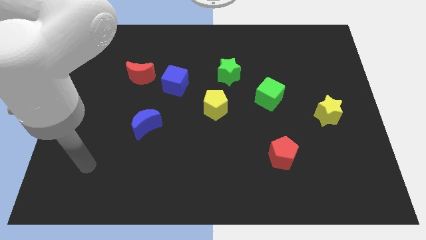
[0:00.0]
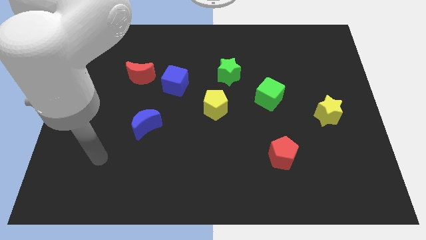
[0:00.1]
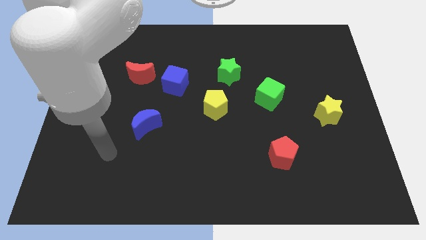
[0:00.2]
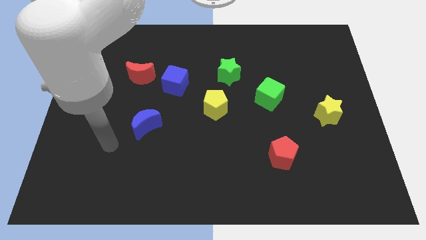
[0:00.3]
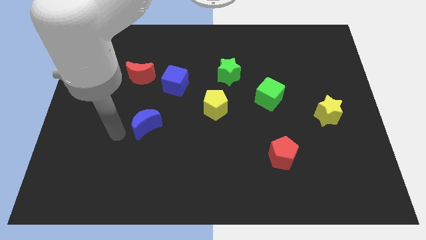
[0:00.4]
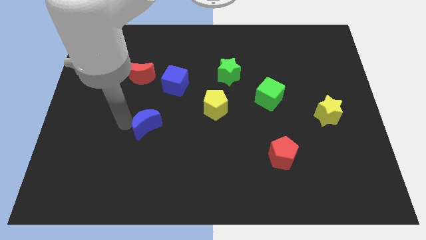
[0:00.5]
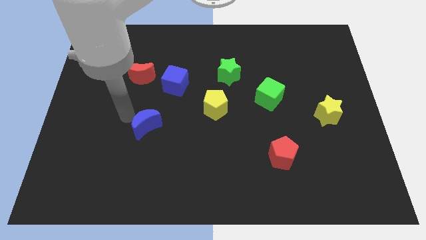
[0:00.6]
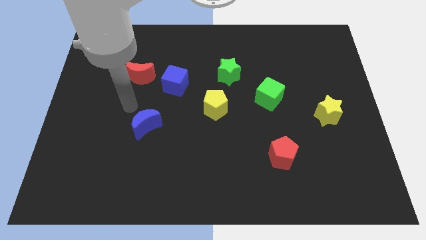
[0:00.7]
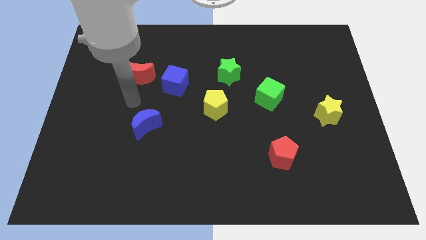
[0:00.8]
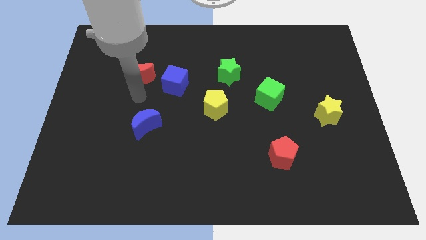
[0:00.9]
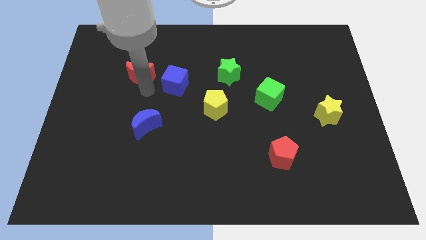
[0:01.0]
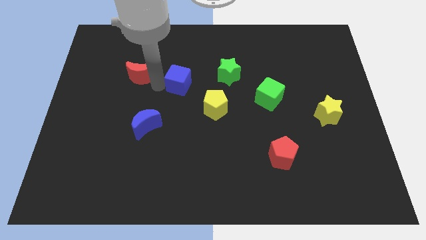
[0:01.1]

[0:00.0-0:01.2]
move the red moon away from the blue cube

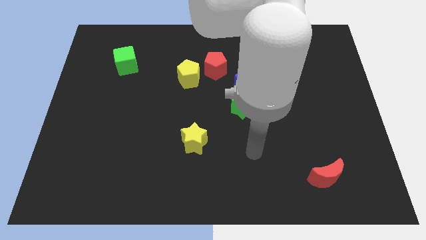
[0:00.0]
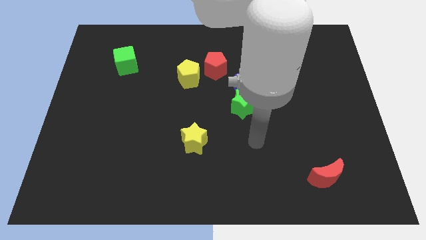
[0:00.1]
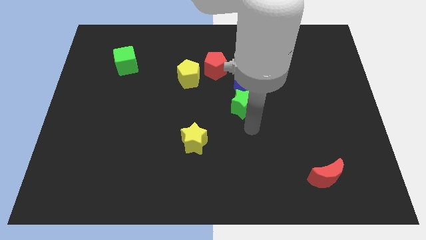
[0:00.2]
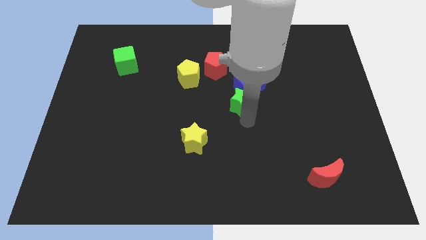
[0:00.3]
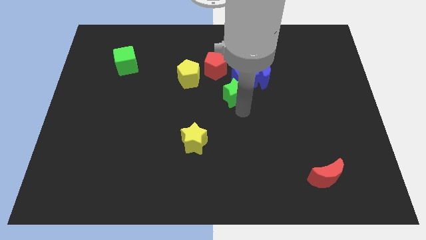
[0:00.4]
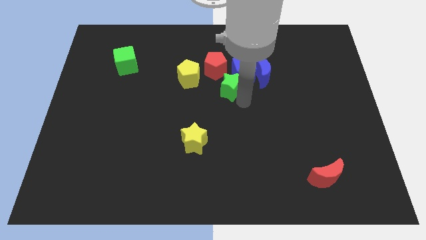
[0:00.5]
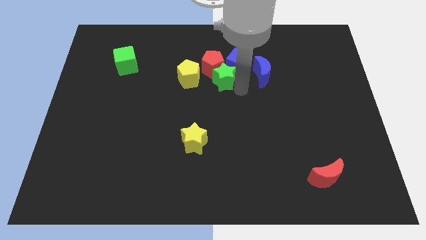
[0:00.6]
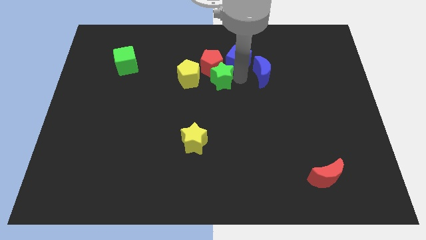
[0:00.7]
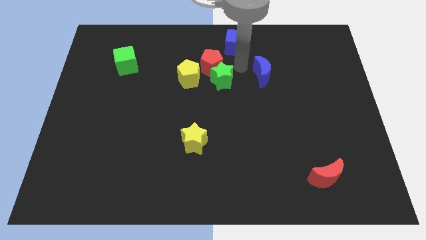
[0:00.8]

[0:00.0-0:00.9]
pull the blue moon apart from the blue cube

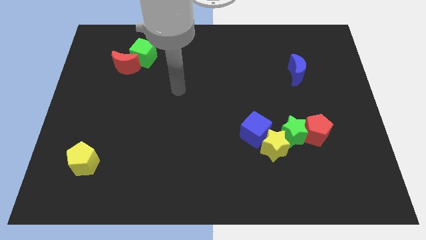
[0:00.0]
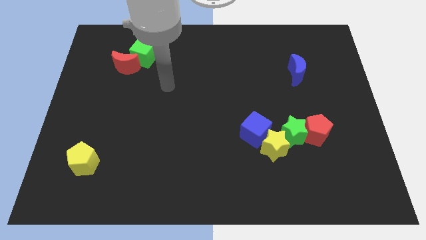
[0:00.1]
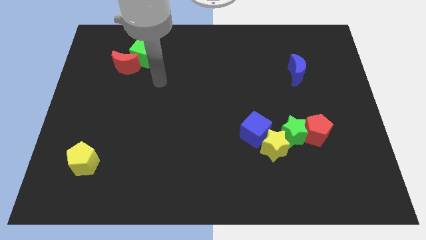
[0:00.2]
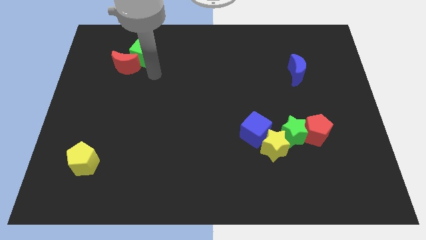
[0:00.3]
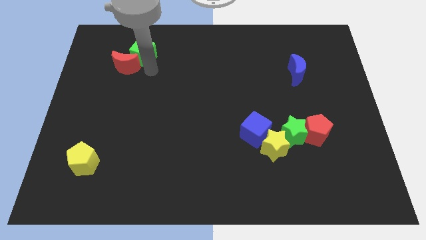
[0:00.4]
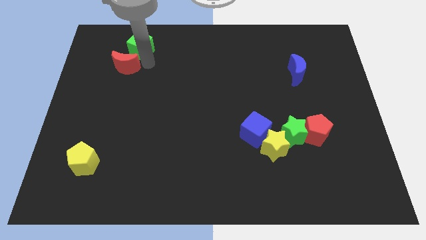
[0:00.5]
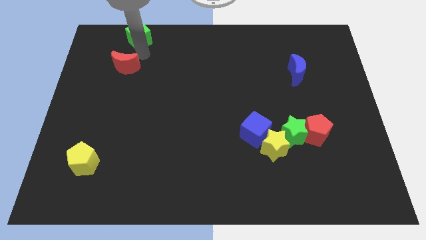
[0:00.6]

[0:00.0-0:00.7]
separate the red moon from the green cube

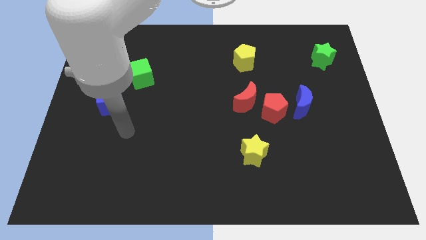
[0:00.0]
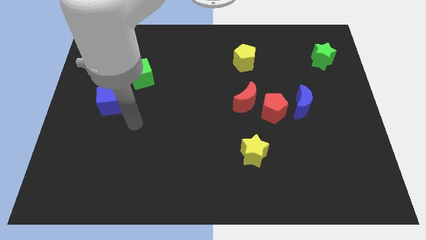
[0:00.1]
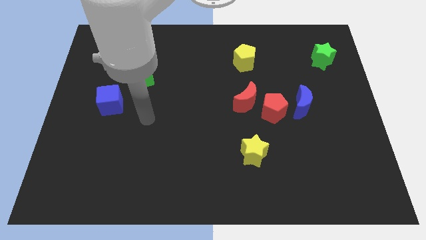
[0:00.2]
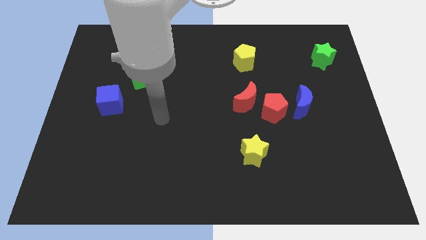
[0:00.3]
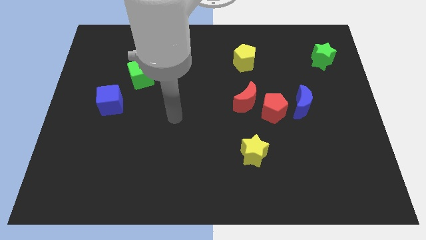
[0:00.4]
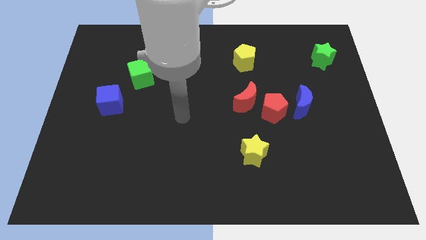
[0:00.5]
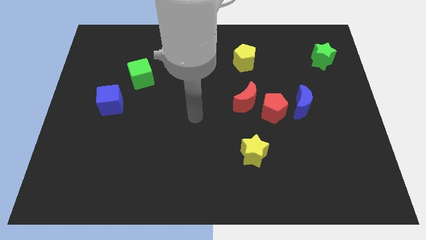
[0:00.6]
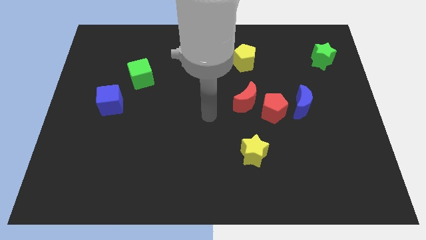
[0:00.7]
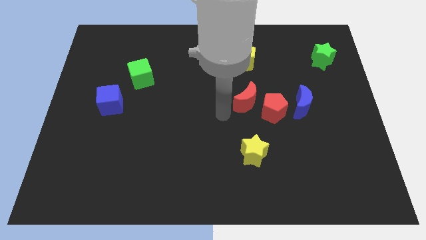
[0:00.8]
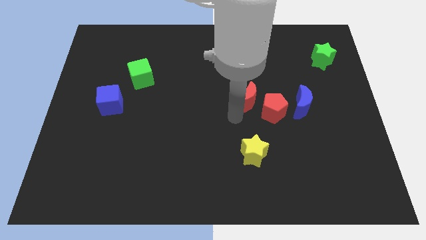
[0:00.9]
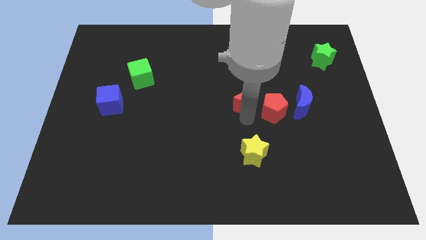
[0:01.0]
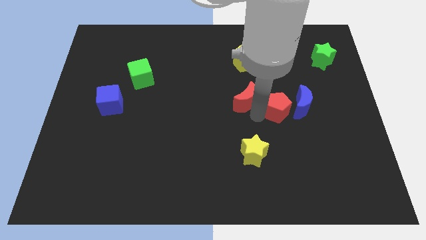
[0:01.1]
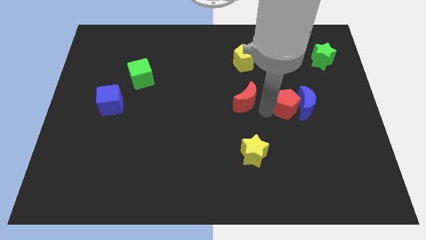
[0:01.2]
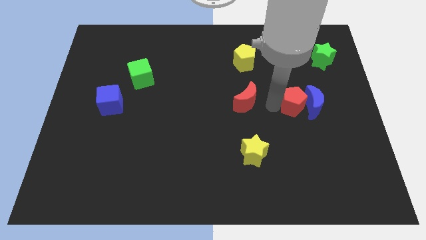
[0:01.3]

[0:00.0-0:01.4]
move the red moon away from the red pentagon

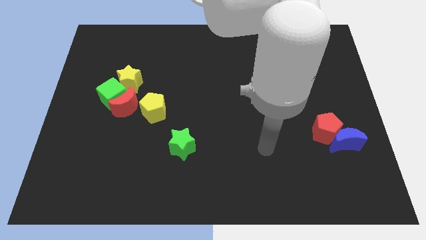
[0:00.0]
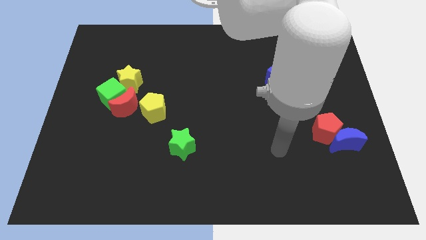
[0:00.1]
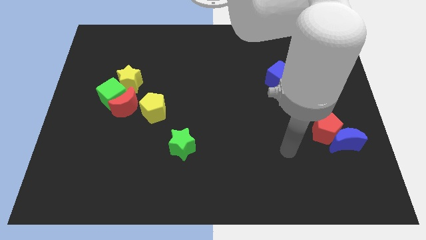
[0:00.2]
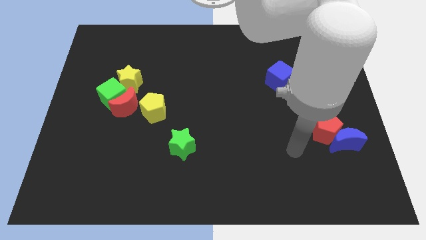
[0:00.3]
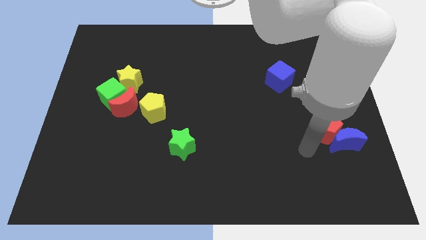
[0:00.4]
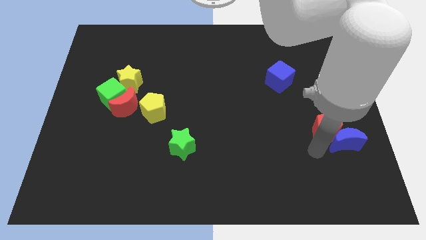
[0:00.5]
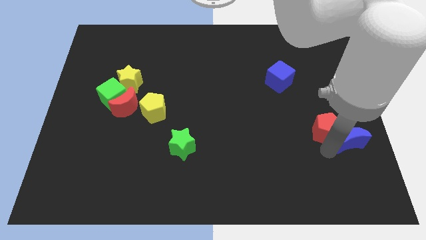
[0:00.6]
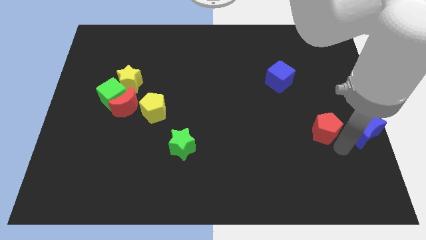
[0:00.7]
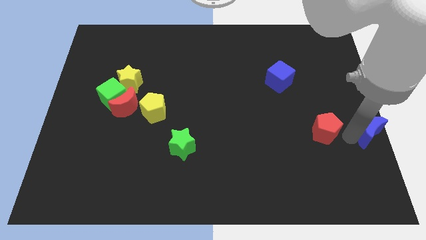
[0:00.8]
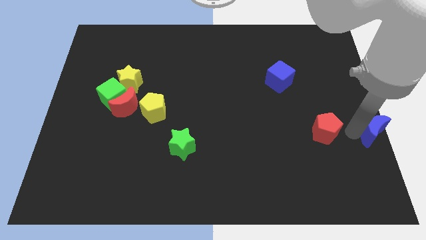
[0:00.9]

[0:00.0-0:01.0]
separate the red pentagon from the blue moon

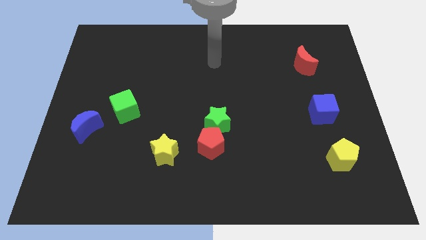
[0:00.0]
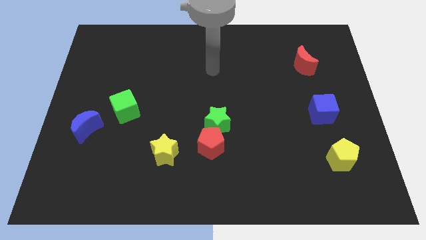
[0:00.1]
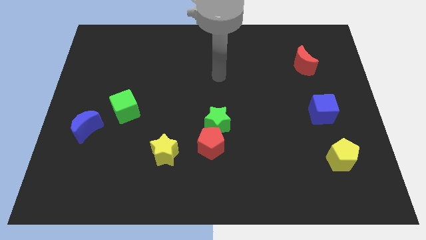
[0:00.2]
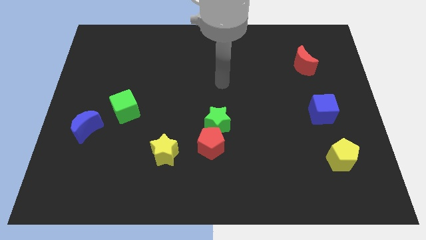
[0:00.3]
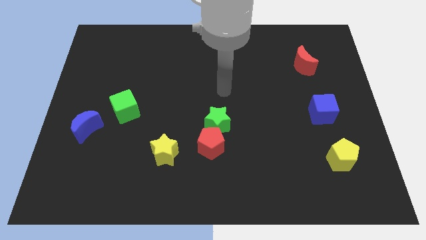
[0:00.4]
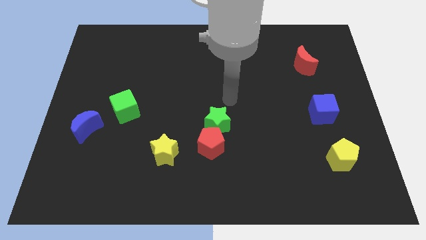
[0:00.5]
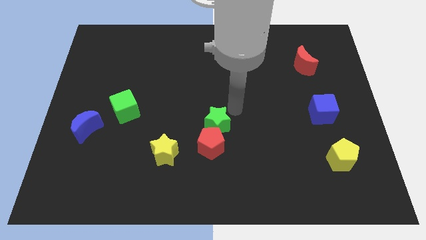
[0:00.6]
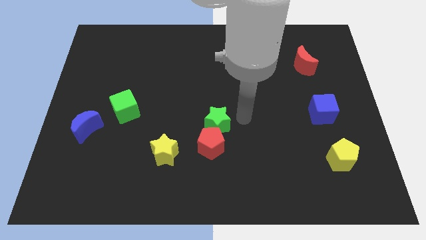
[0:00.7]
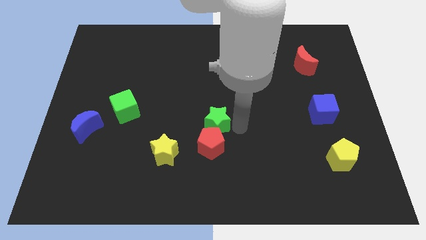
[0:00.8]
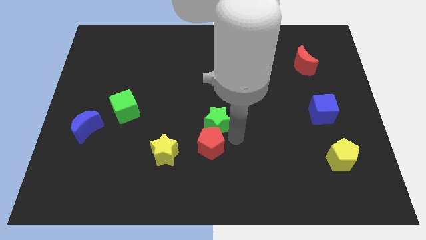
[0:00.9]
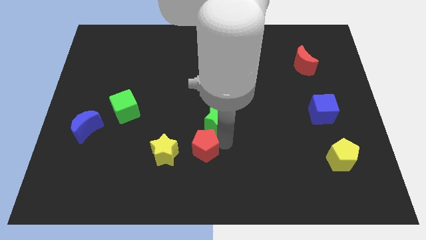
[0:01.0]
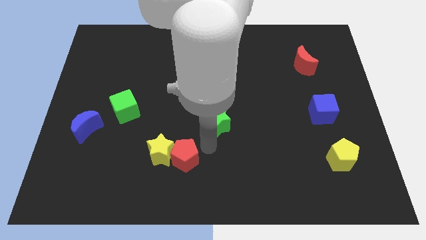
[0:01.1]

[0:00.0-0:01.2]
move the green star away from the red pentagon

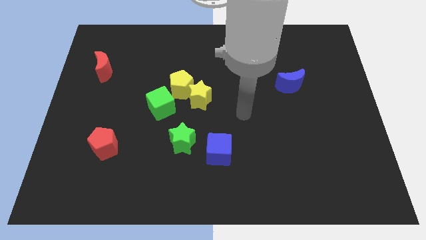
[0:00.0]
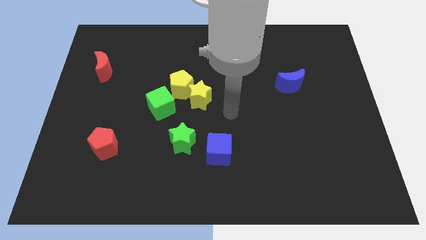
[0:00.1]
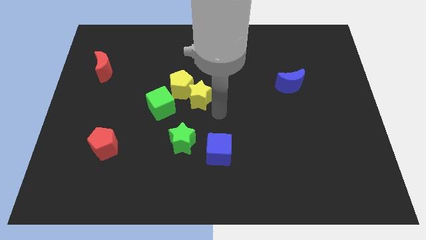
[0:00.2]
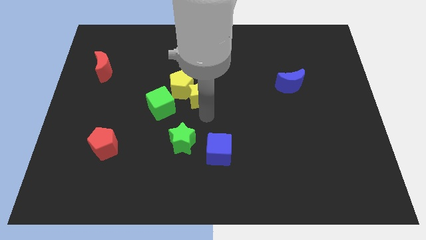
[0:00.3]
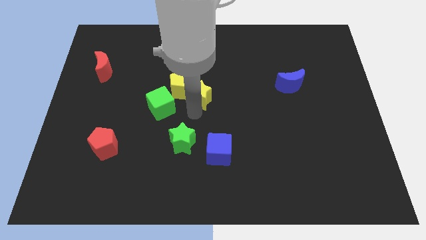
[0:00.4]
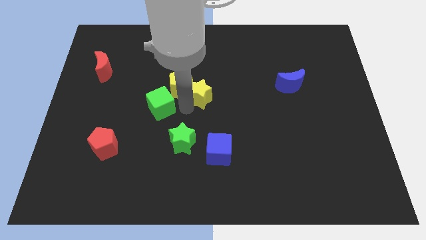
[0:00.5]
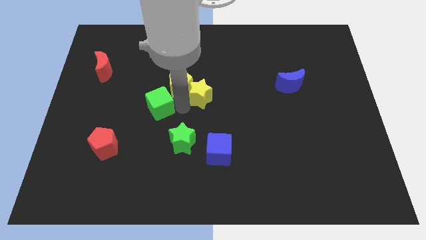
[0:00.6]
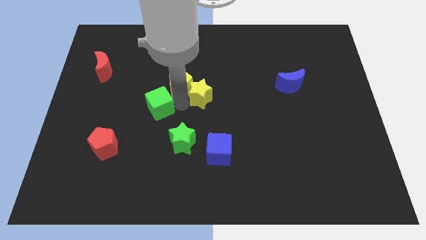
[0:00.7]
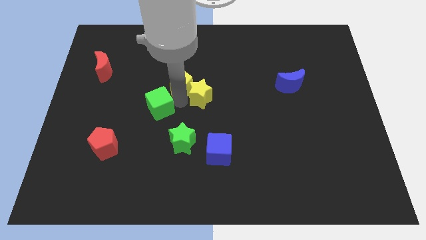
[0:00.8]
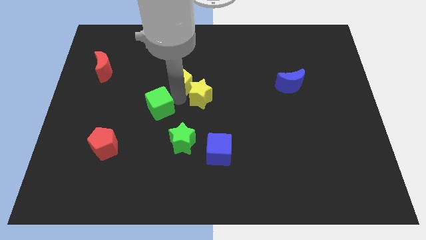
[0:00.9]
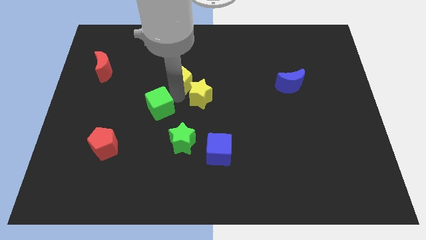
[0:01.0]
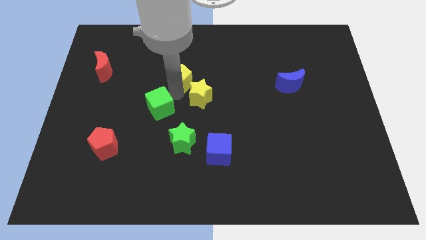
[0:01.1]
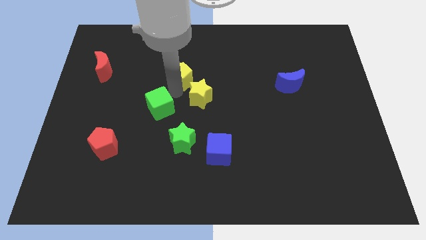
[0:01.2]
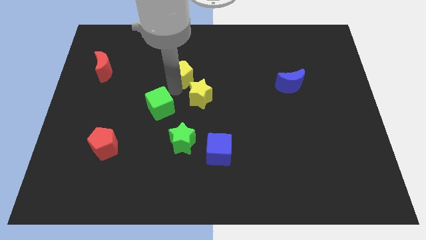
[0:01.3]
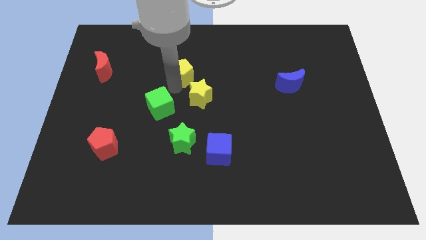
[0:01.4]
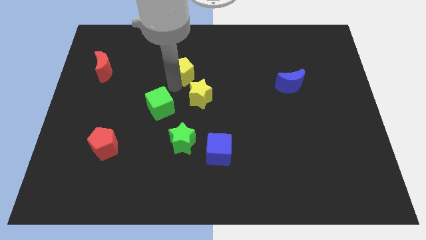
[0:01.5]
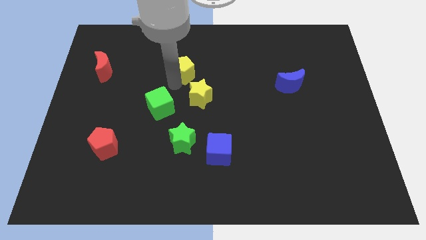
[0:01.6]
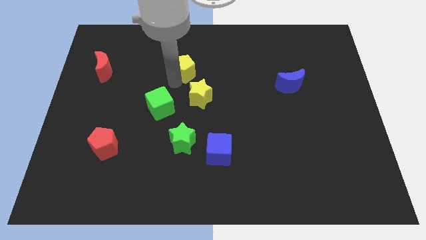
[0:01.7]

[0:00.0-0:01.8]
separate the yellow pentagon from the yellow star and green cube

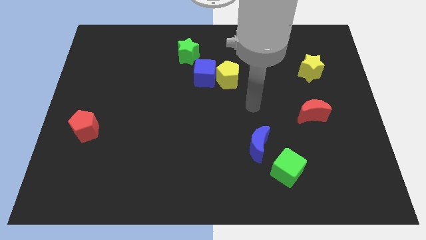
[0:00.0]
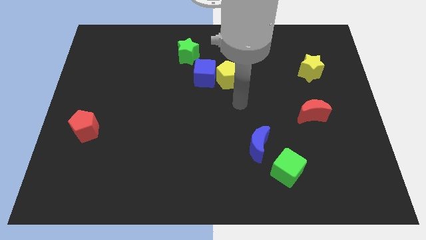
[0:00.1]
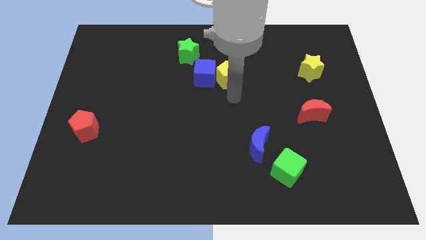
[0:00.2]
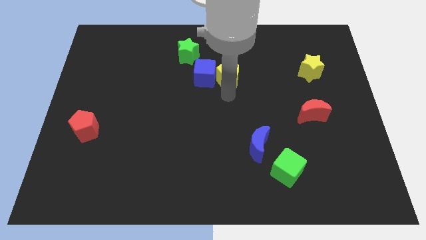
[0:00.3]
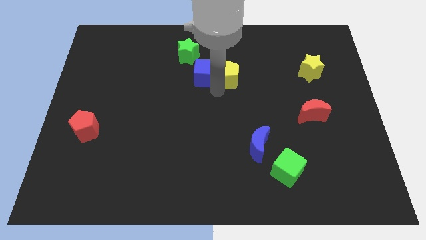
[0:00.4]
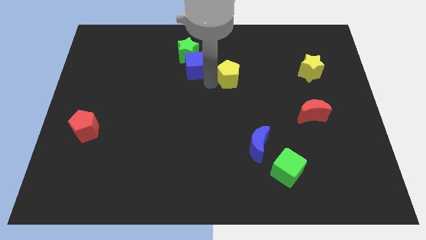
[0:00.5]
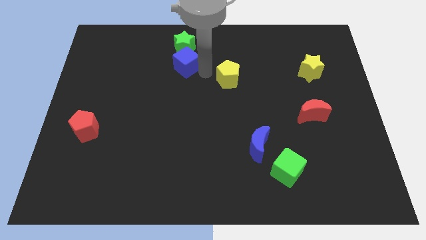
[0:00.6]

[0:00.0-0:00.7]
pull the yellow pentagon apart from the blue cube

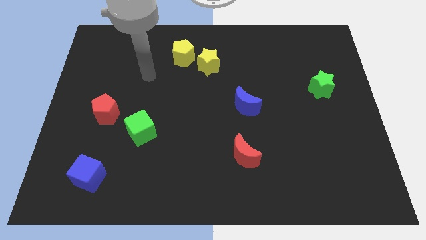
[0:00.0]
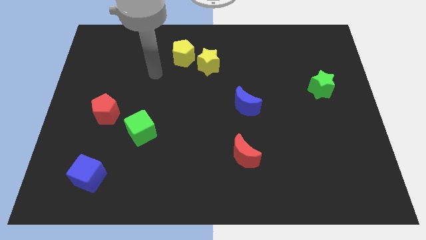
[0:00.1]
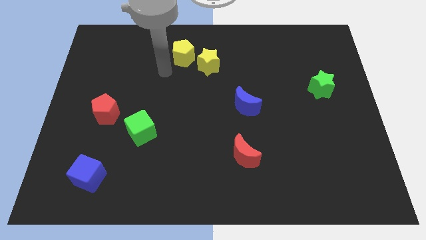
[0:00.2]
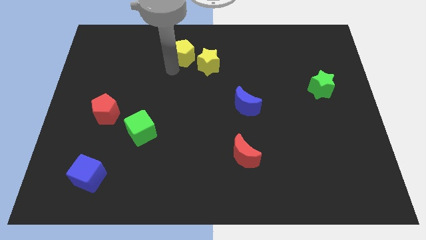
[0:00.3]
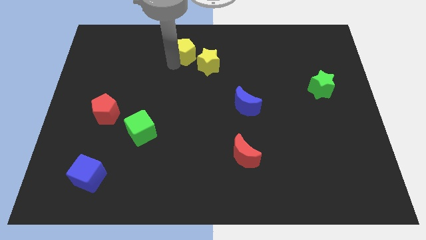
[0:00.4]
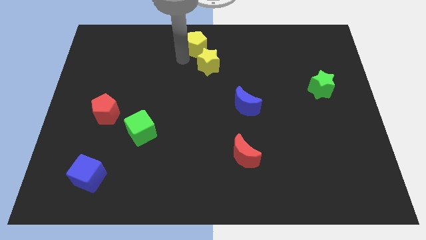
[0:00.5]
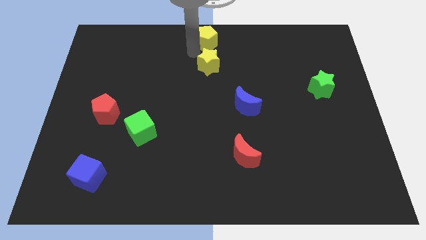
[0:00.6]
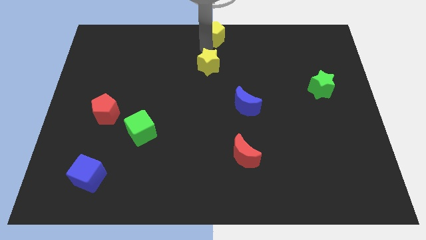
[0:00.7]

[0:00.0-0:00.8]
pull the yellow star apart from the yellow pentagon
